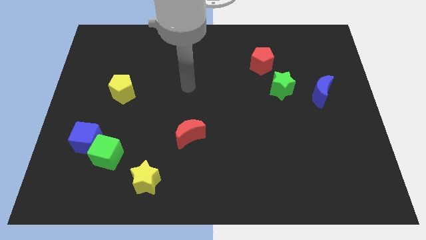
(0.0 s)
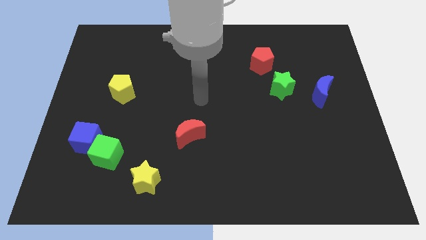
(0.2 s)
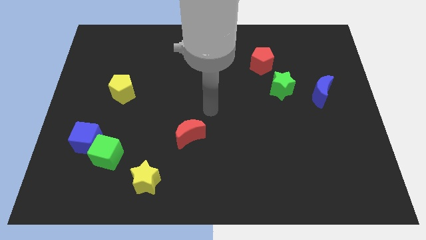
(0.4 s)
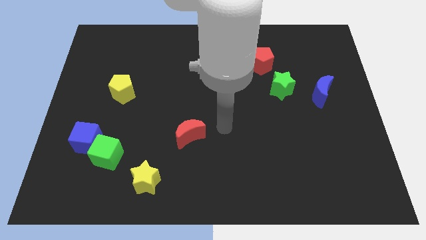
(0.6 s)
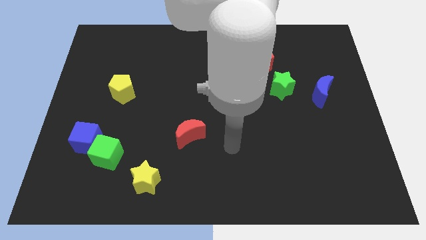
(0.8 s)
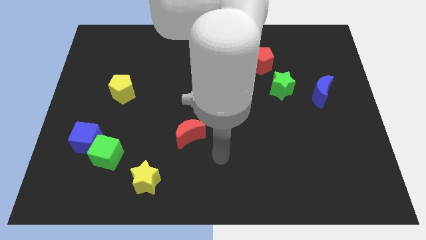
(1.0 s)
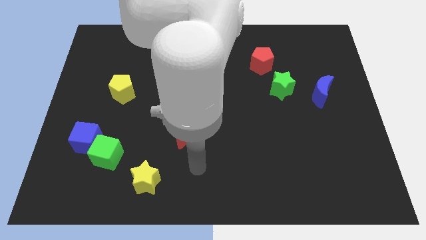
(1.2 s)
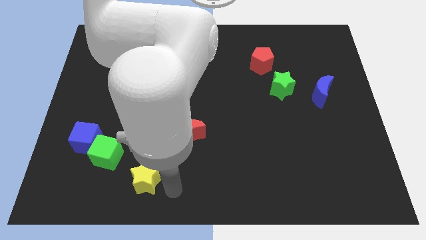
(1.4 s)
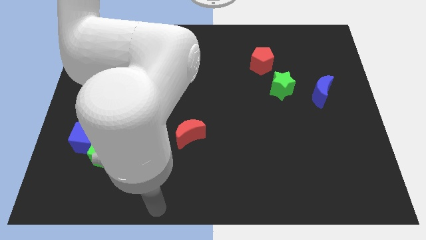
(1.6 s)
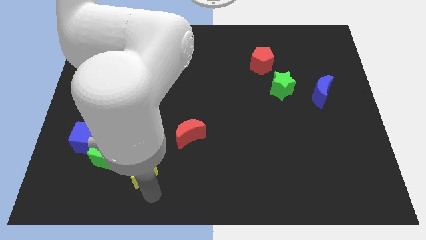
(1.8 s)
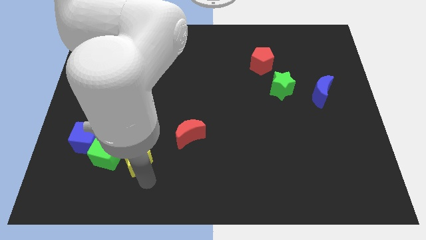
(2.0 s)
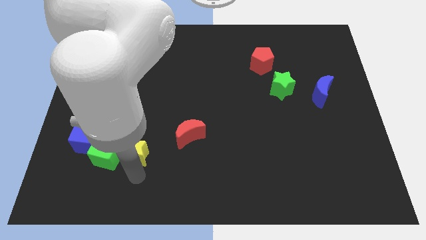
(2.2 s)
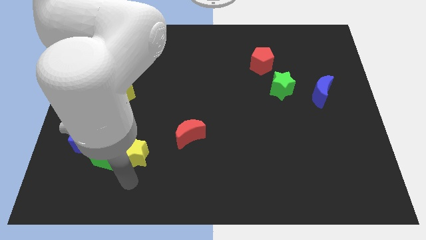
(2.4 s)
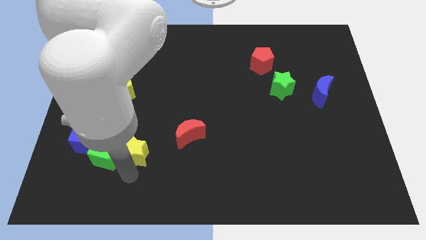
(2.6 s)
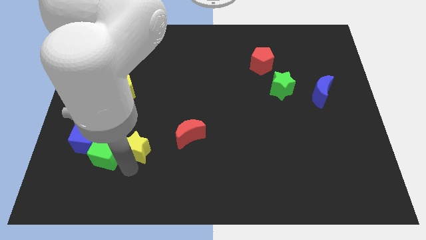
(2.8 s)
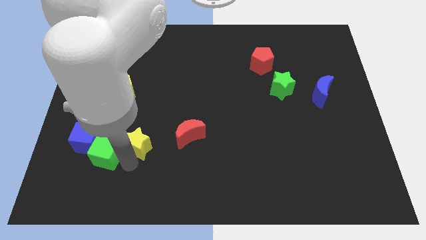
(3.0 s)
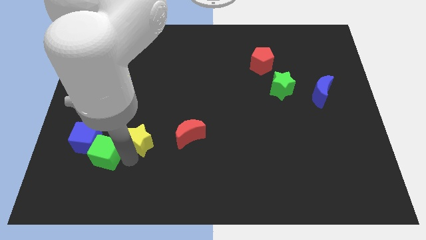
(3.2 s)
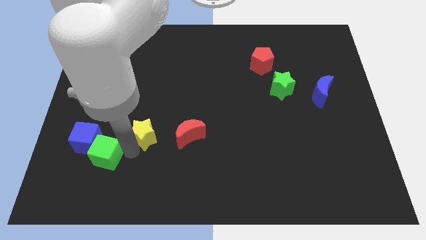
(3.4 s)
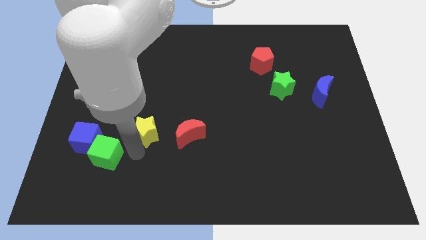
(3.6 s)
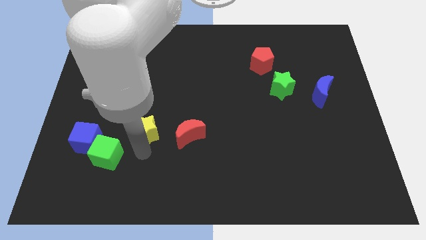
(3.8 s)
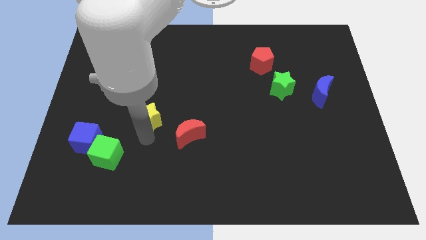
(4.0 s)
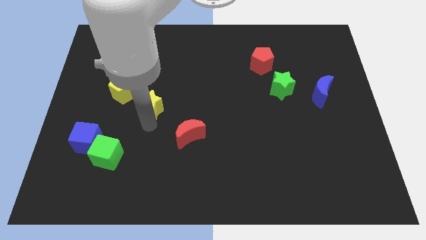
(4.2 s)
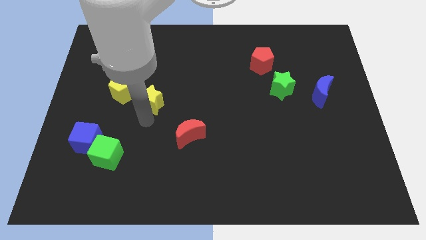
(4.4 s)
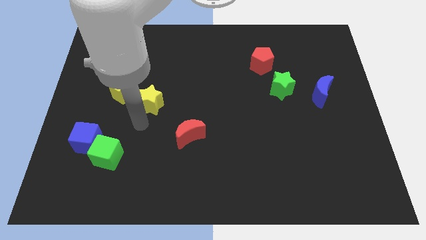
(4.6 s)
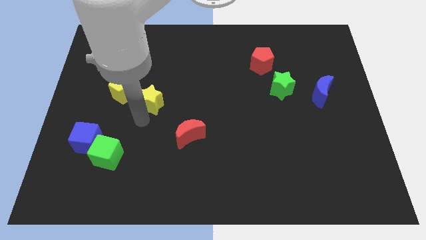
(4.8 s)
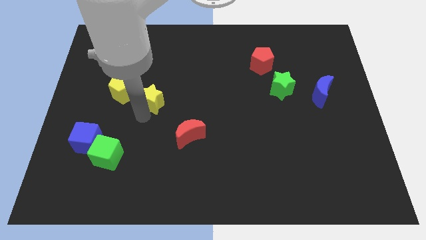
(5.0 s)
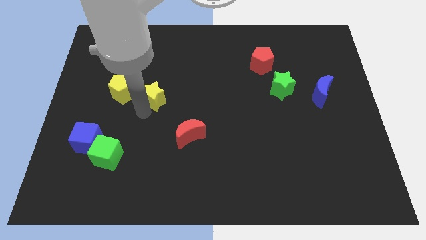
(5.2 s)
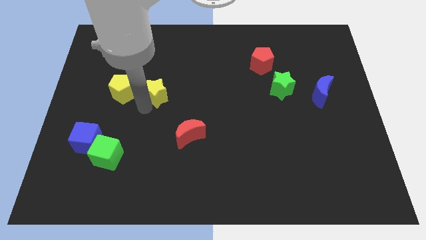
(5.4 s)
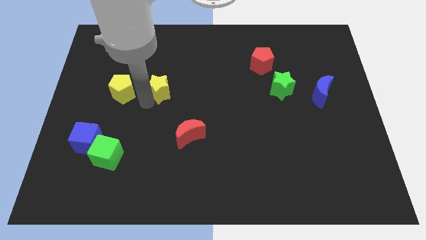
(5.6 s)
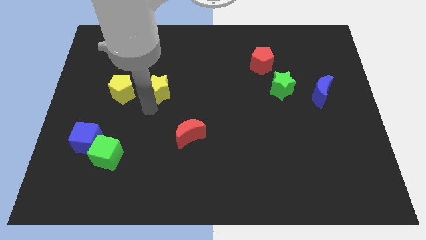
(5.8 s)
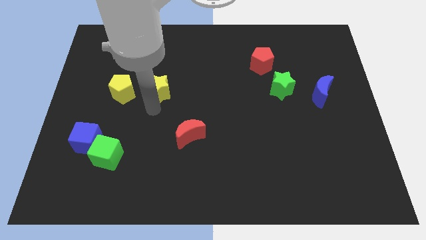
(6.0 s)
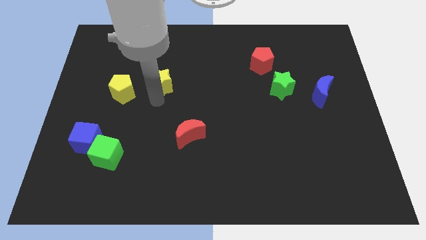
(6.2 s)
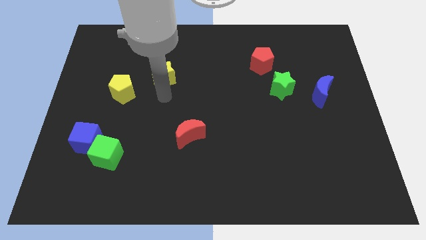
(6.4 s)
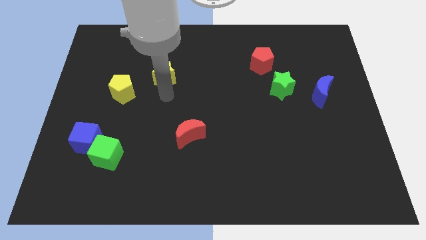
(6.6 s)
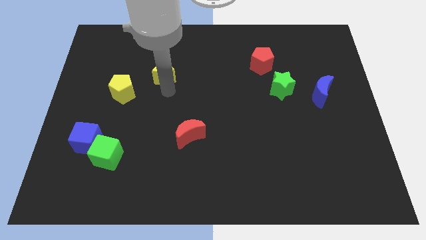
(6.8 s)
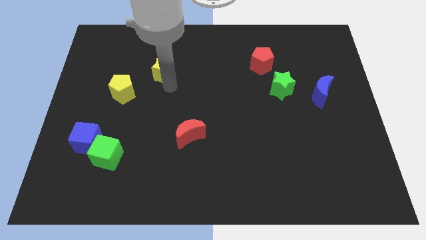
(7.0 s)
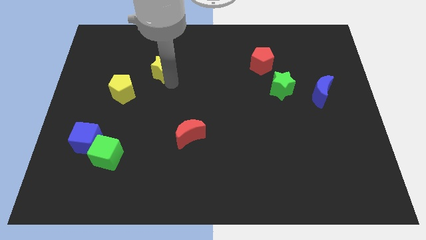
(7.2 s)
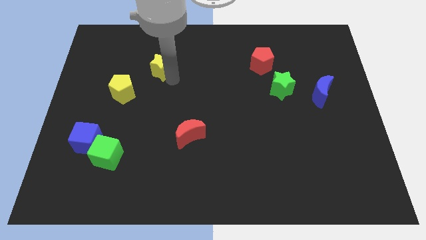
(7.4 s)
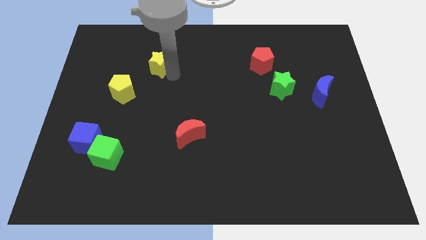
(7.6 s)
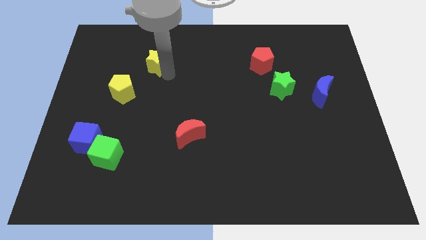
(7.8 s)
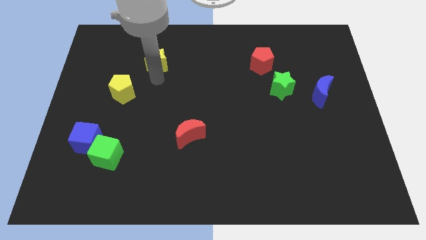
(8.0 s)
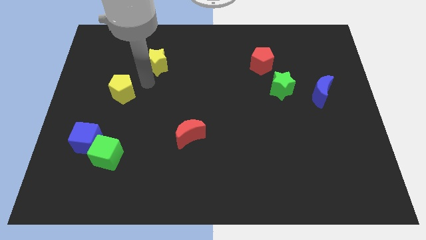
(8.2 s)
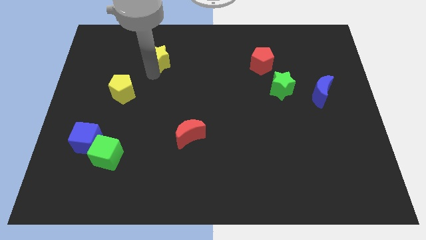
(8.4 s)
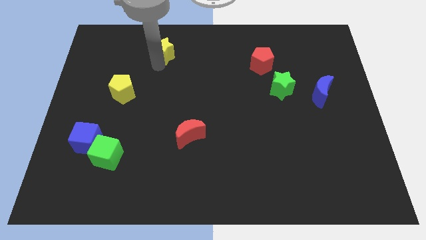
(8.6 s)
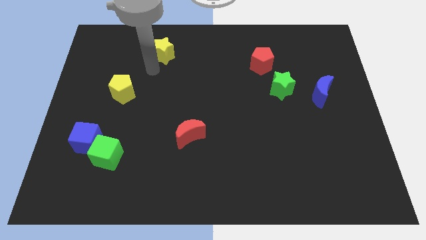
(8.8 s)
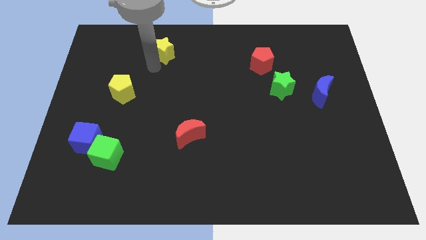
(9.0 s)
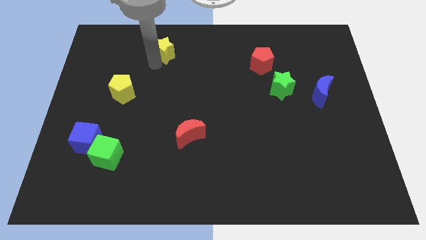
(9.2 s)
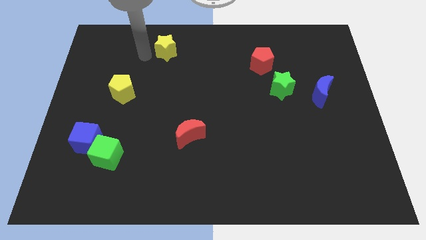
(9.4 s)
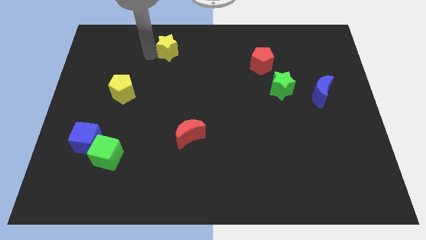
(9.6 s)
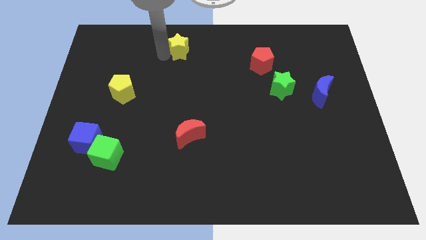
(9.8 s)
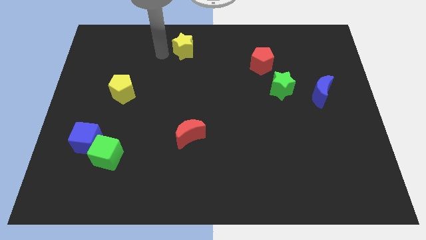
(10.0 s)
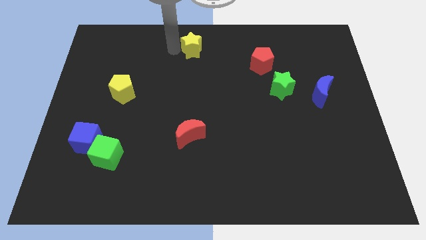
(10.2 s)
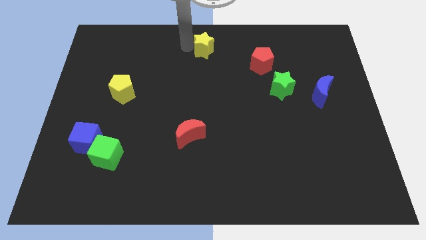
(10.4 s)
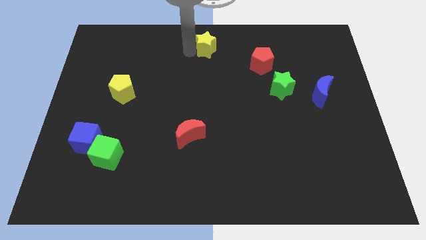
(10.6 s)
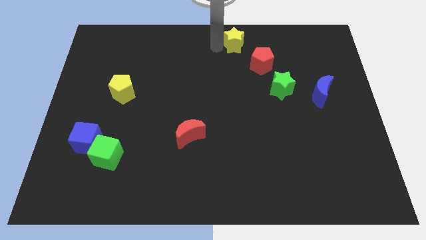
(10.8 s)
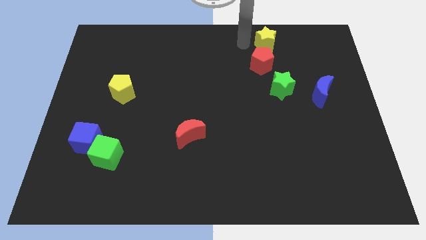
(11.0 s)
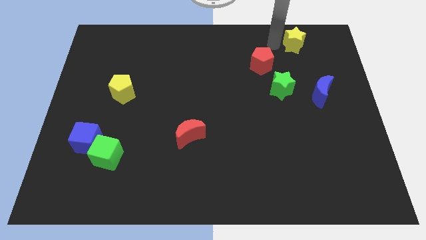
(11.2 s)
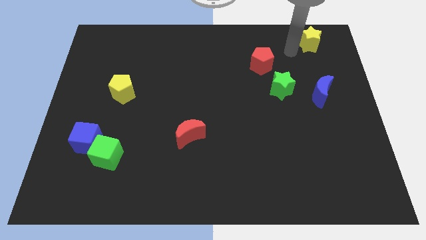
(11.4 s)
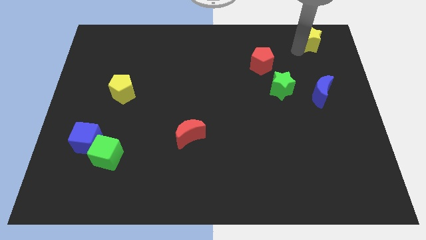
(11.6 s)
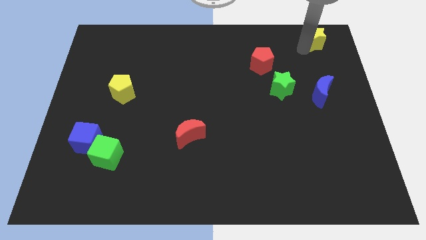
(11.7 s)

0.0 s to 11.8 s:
put the yellow star to the top right corner

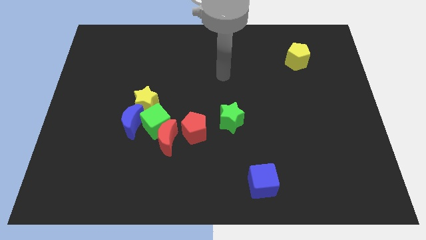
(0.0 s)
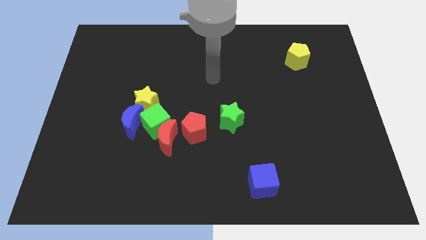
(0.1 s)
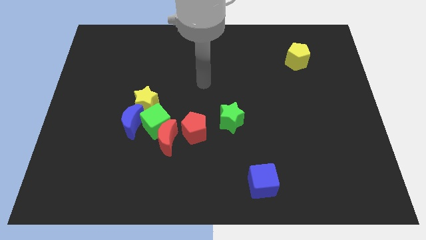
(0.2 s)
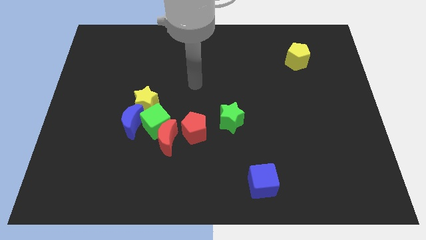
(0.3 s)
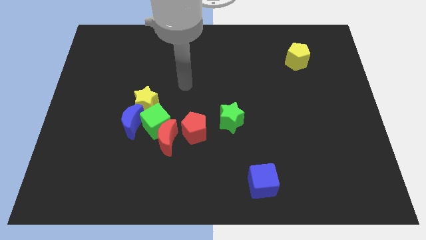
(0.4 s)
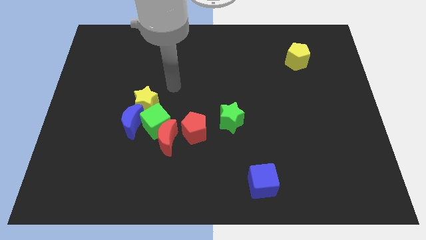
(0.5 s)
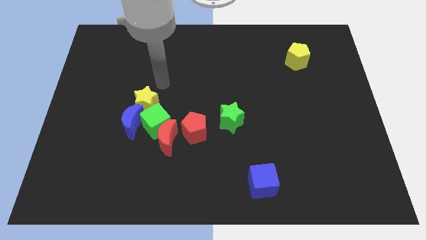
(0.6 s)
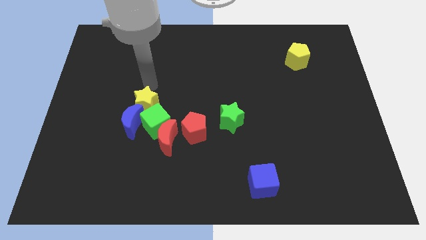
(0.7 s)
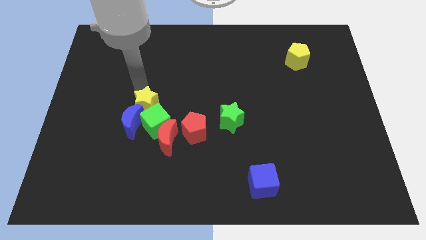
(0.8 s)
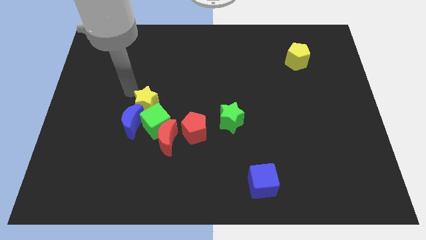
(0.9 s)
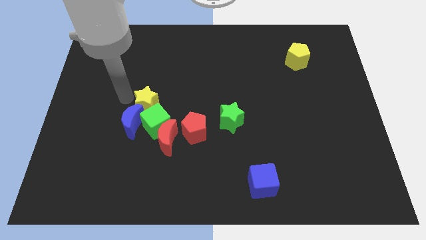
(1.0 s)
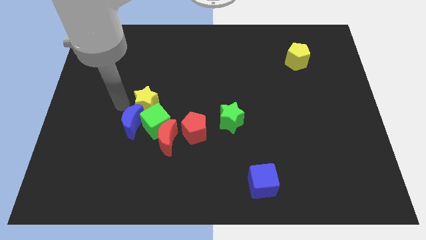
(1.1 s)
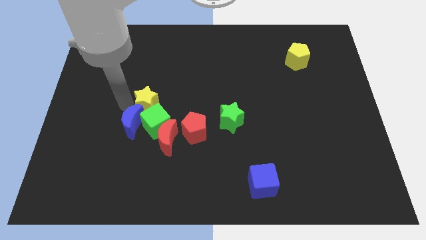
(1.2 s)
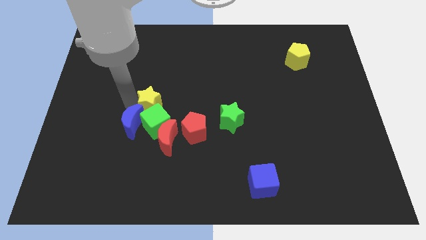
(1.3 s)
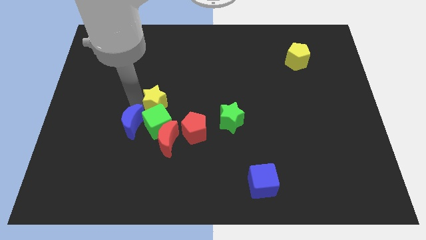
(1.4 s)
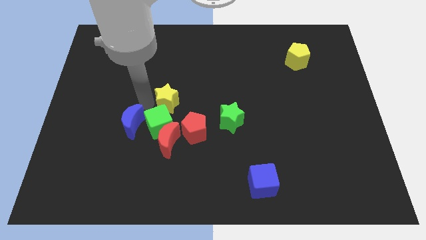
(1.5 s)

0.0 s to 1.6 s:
move the yellow star to the middle of the board

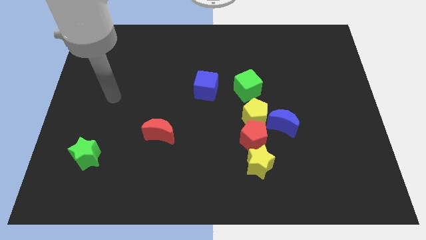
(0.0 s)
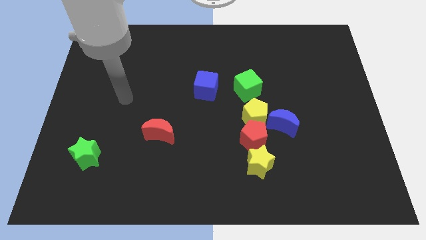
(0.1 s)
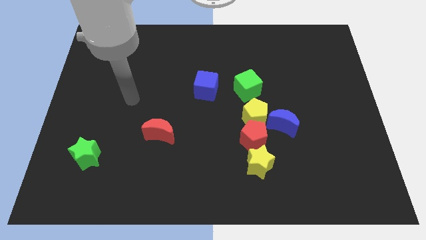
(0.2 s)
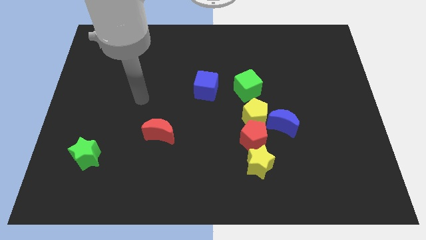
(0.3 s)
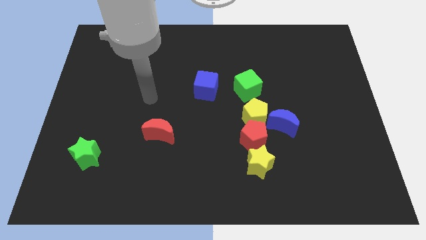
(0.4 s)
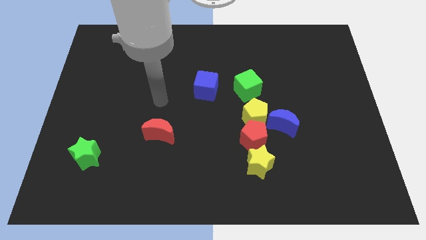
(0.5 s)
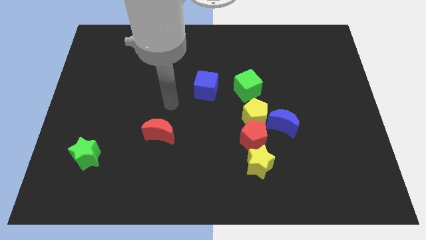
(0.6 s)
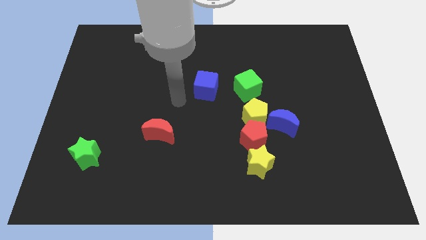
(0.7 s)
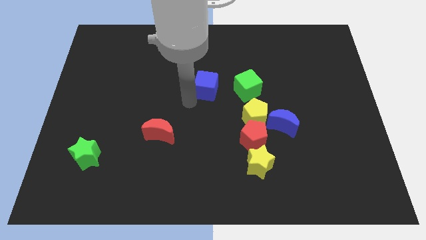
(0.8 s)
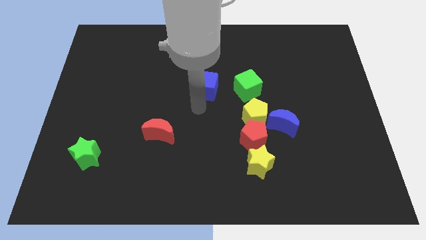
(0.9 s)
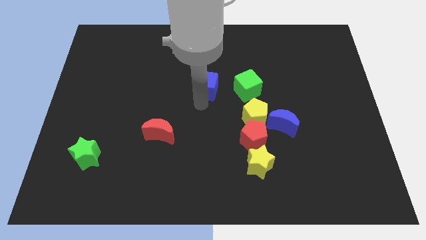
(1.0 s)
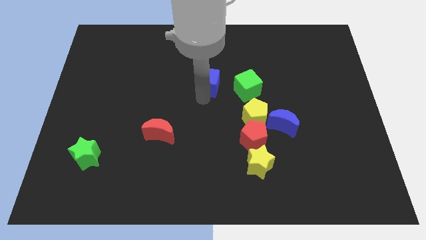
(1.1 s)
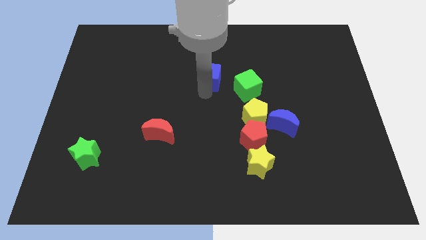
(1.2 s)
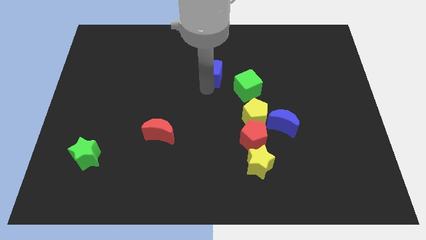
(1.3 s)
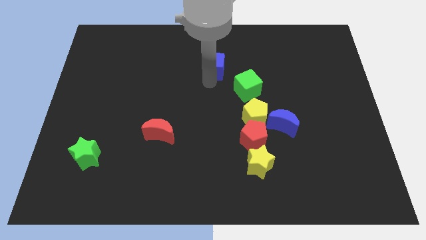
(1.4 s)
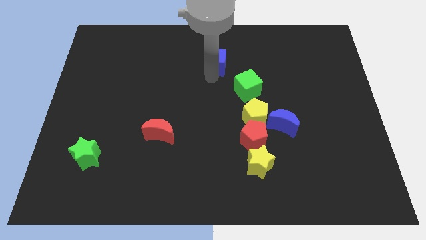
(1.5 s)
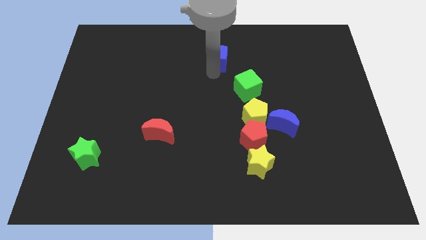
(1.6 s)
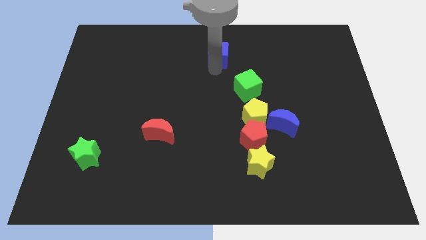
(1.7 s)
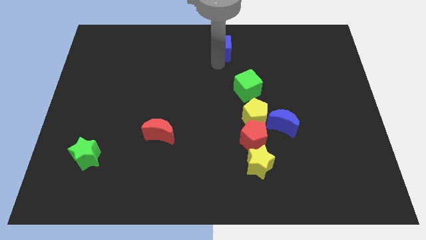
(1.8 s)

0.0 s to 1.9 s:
move the blue cube to the top
